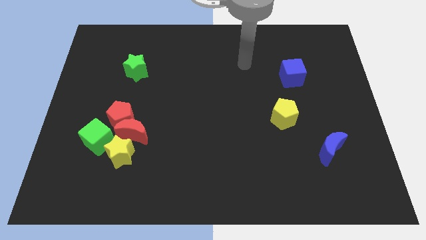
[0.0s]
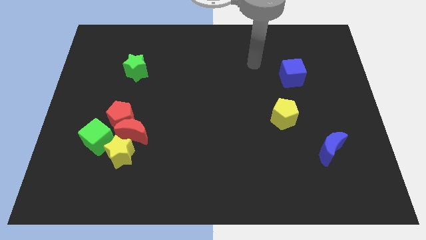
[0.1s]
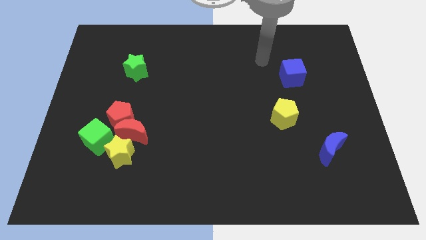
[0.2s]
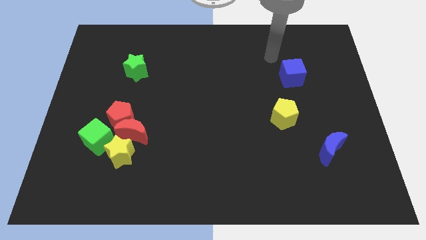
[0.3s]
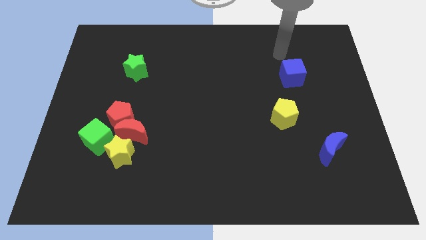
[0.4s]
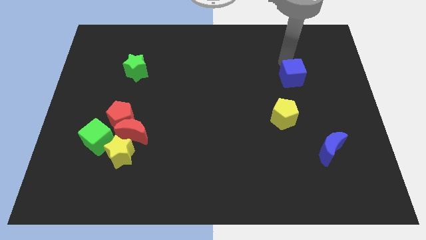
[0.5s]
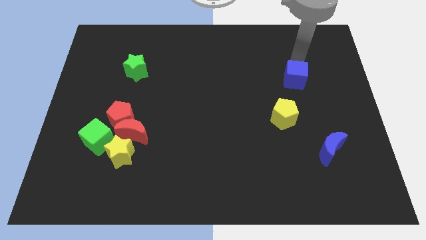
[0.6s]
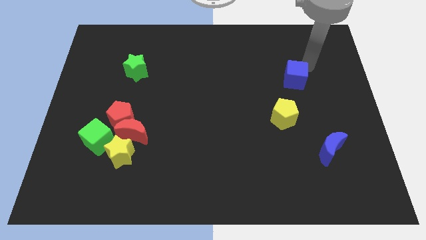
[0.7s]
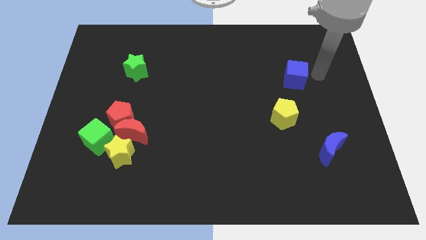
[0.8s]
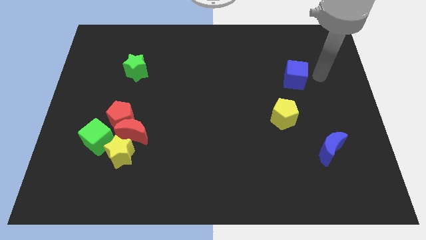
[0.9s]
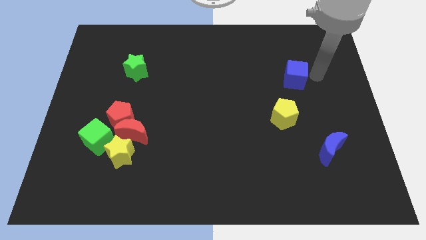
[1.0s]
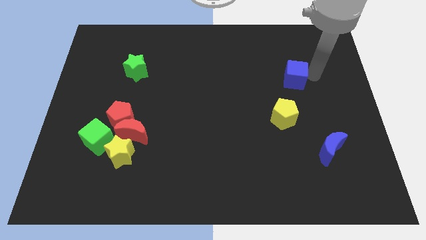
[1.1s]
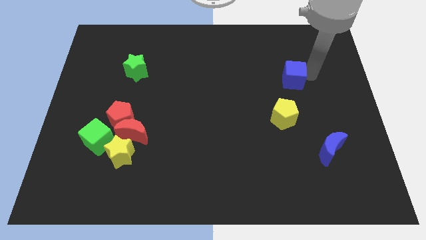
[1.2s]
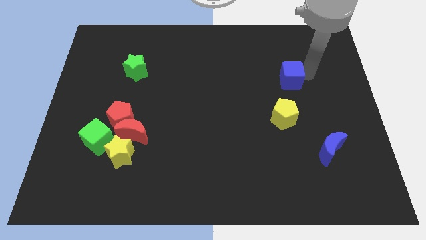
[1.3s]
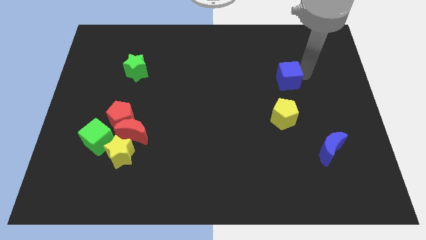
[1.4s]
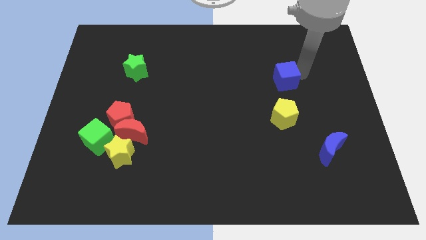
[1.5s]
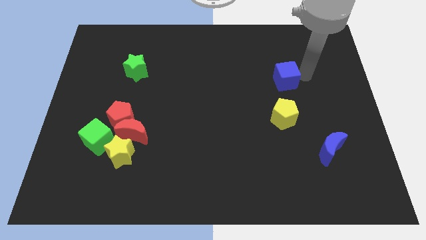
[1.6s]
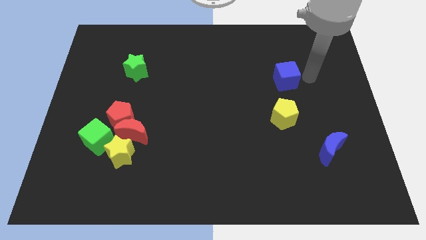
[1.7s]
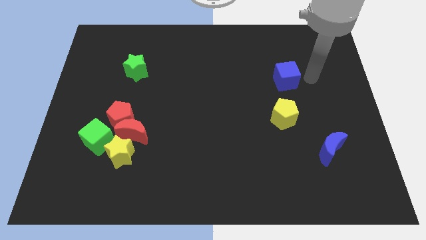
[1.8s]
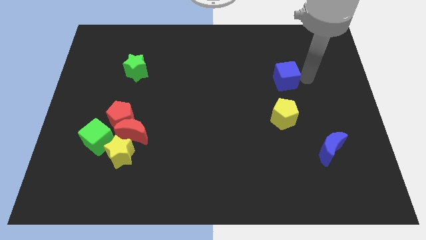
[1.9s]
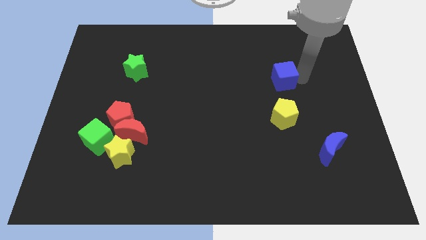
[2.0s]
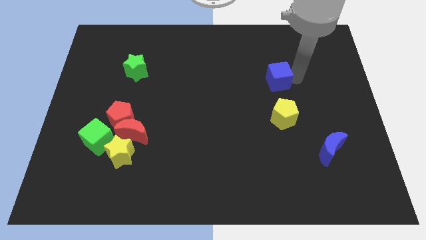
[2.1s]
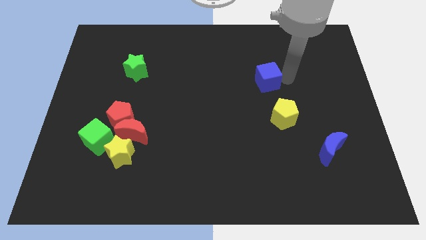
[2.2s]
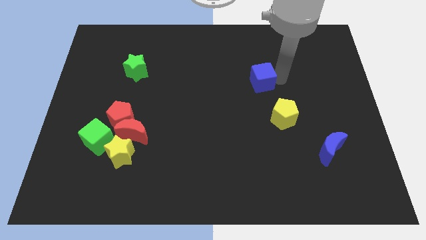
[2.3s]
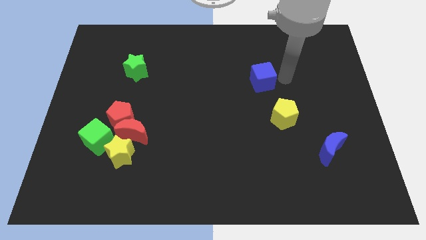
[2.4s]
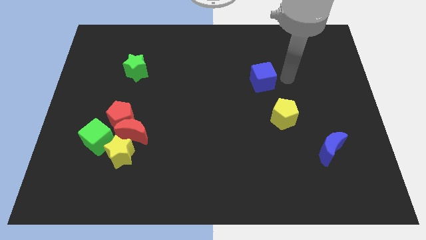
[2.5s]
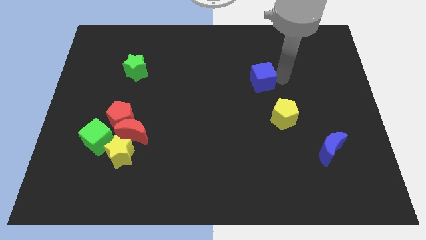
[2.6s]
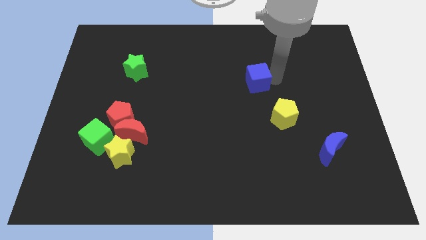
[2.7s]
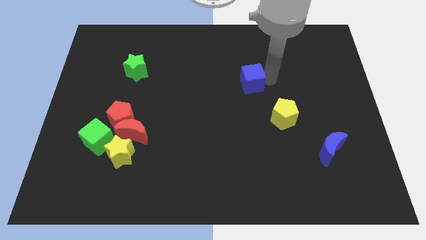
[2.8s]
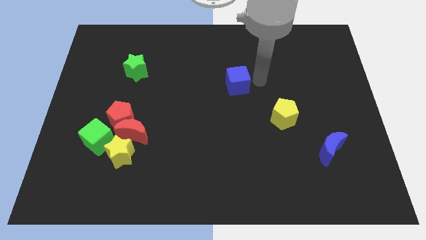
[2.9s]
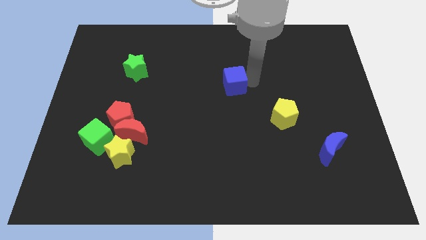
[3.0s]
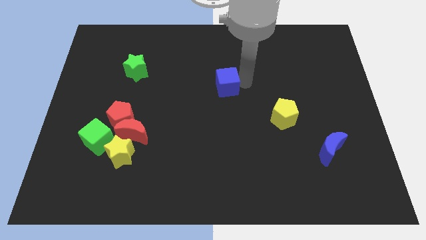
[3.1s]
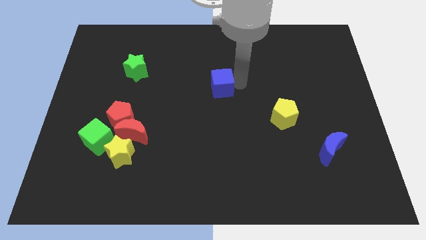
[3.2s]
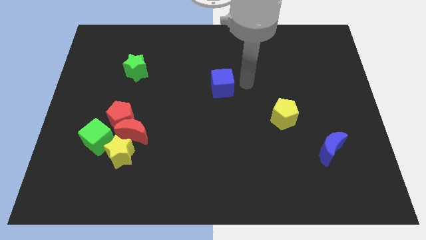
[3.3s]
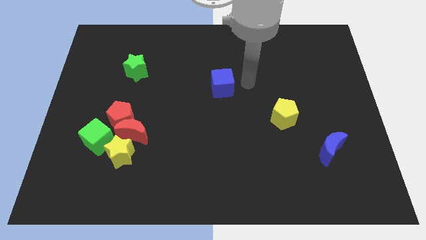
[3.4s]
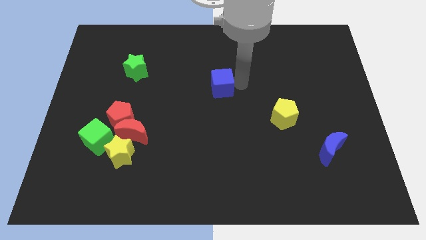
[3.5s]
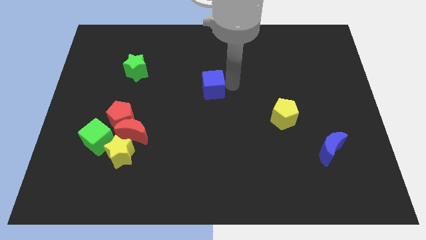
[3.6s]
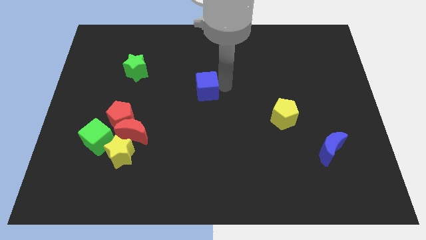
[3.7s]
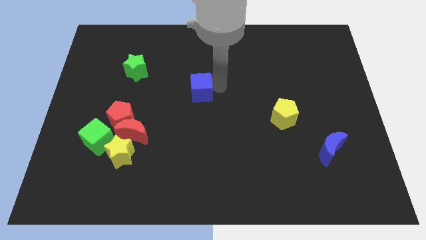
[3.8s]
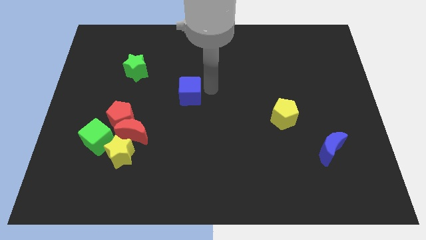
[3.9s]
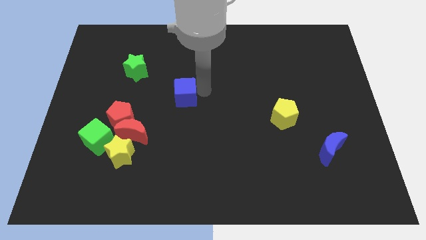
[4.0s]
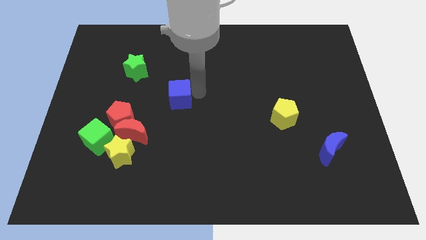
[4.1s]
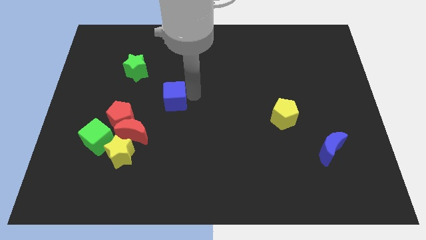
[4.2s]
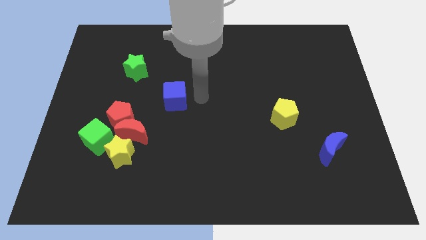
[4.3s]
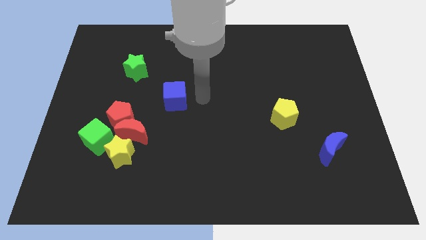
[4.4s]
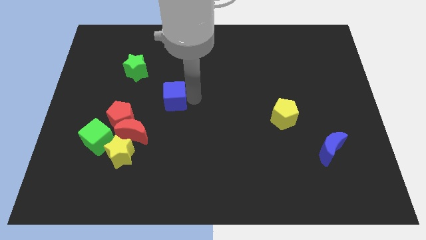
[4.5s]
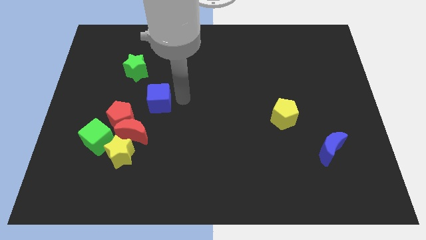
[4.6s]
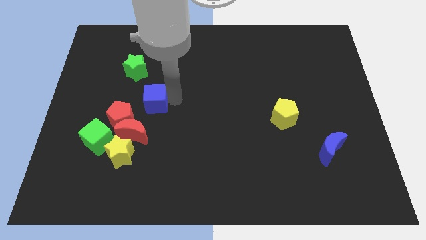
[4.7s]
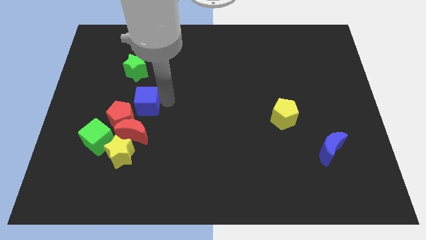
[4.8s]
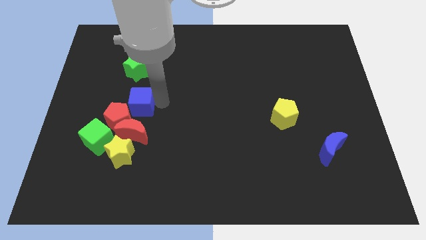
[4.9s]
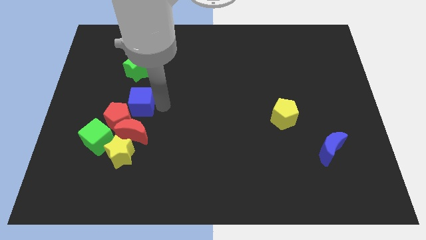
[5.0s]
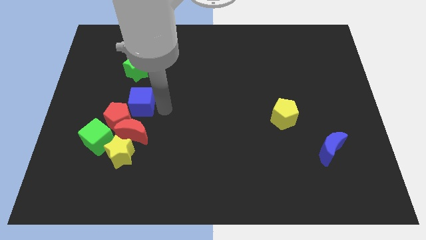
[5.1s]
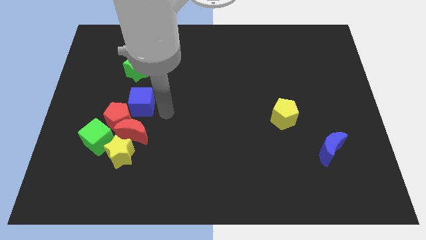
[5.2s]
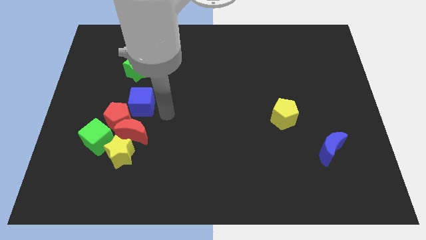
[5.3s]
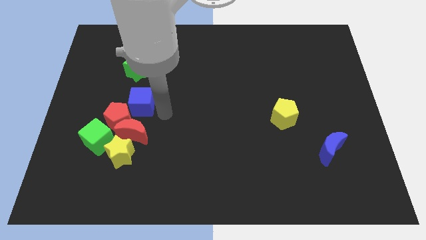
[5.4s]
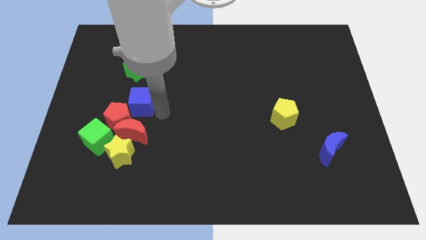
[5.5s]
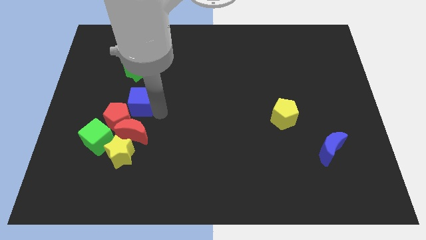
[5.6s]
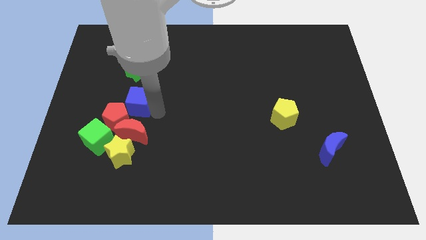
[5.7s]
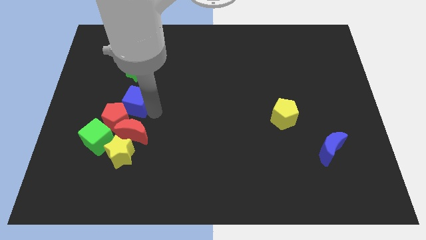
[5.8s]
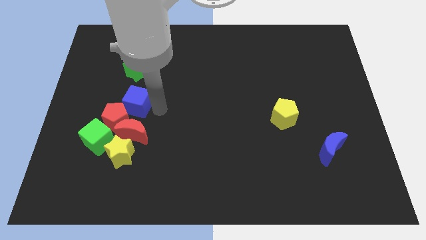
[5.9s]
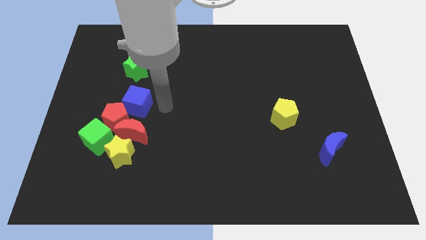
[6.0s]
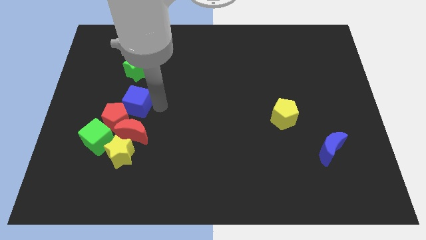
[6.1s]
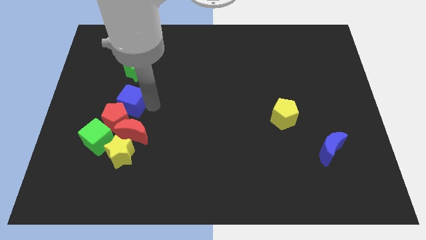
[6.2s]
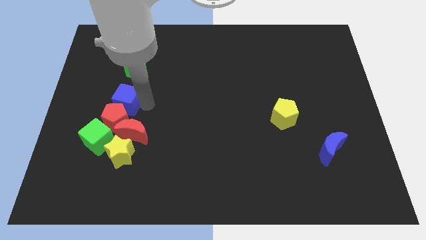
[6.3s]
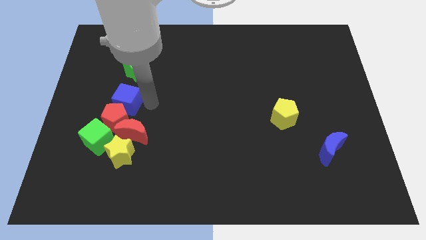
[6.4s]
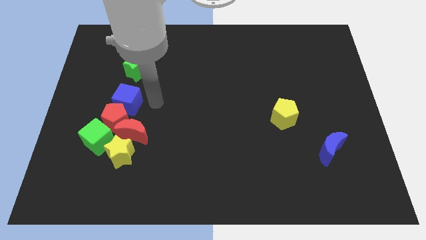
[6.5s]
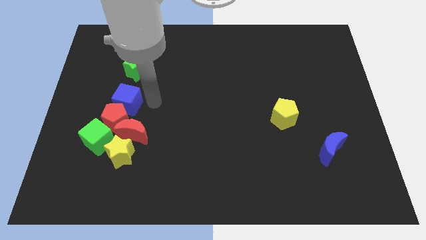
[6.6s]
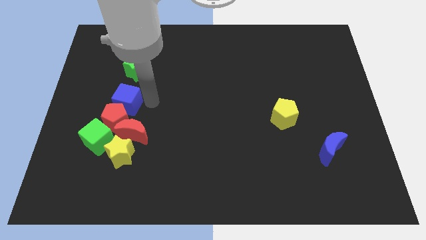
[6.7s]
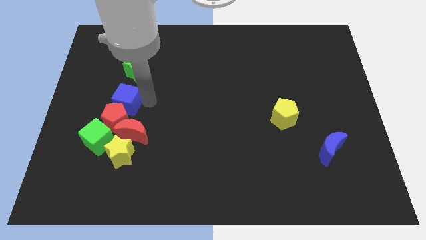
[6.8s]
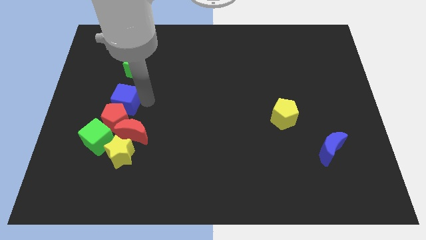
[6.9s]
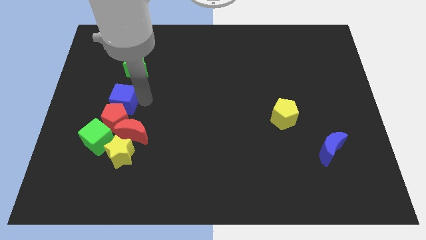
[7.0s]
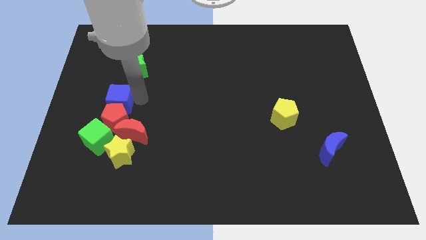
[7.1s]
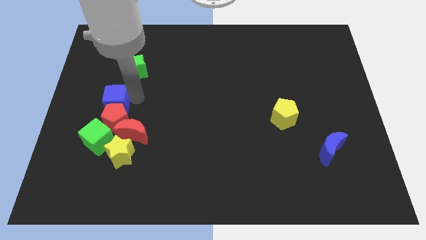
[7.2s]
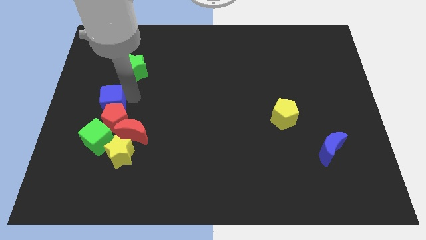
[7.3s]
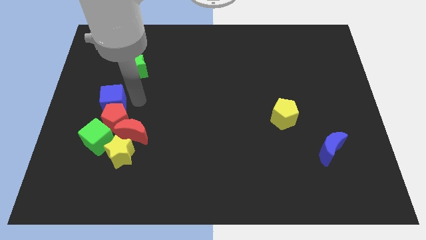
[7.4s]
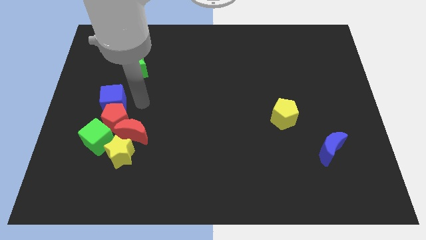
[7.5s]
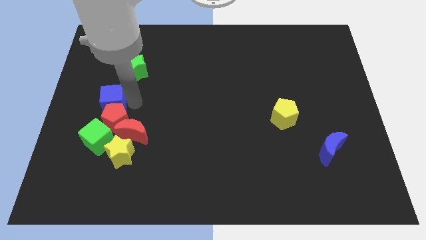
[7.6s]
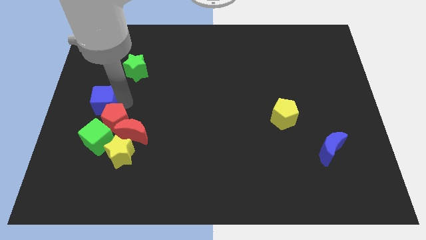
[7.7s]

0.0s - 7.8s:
move the blue cube to the left side of the board
